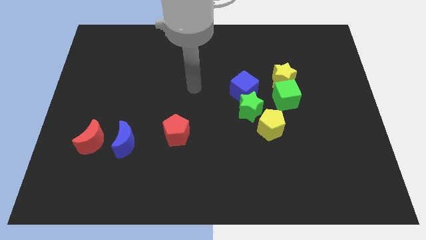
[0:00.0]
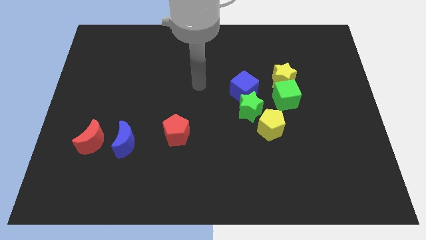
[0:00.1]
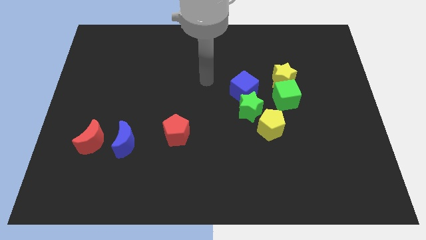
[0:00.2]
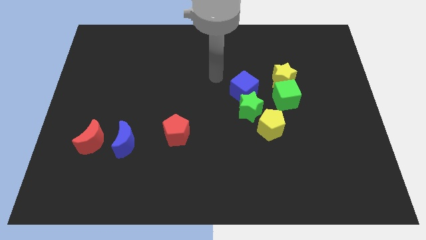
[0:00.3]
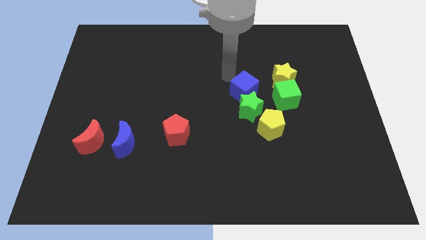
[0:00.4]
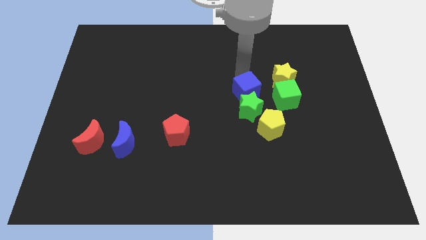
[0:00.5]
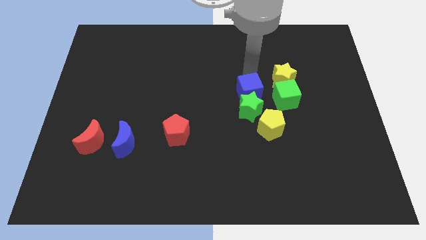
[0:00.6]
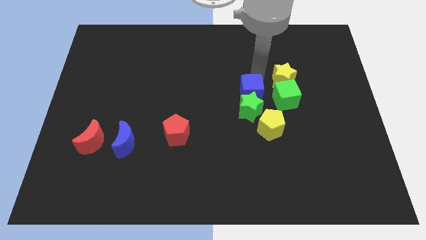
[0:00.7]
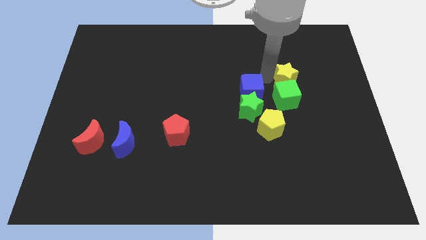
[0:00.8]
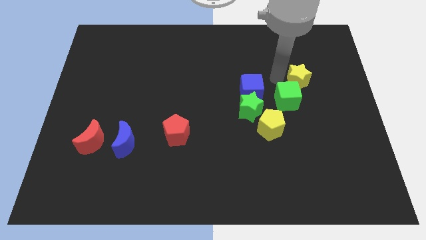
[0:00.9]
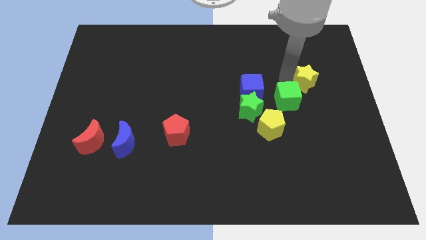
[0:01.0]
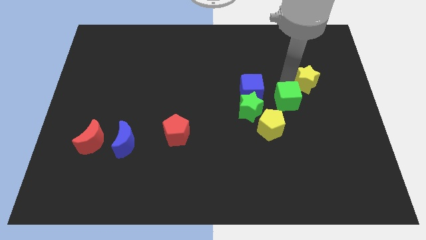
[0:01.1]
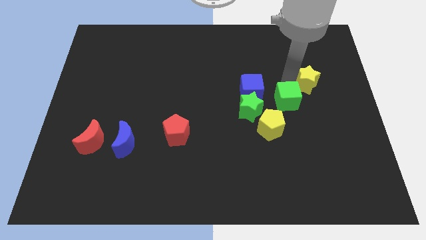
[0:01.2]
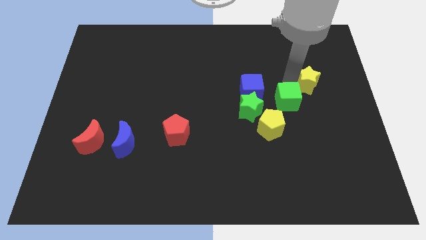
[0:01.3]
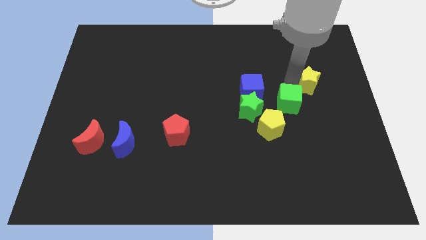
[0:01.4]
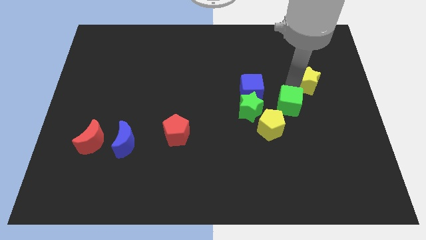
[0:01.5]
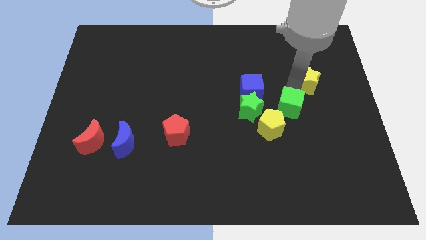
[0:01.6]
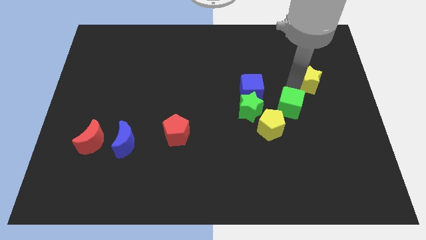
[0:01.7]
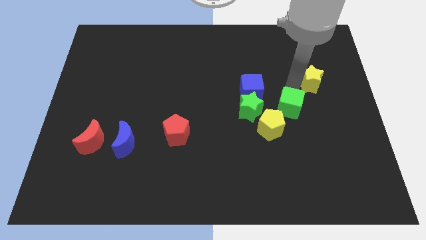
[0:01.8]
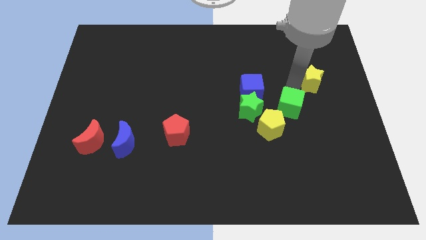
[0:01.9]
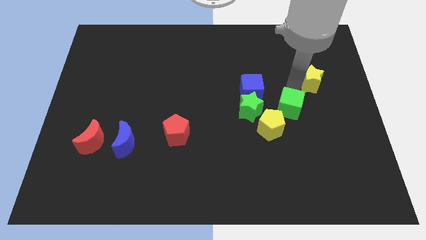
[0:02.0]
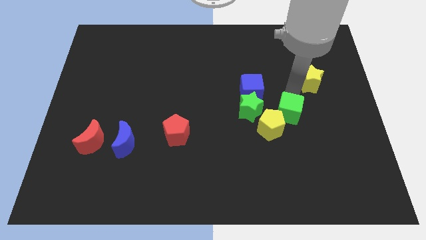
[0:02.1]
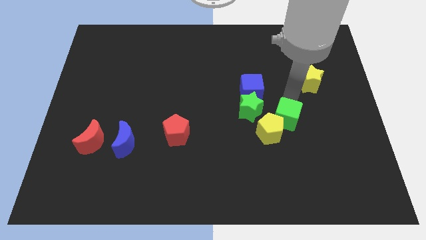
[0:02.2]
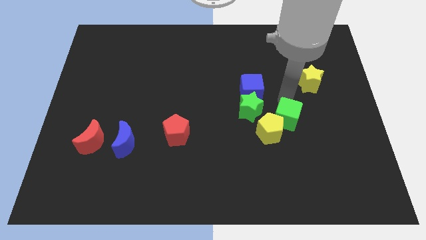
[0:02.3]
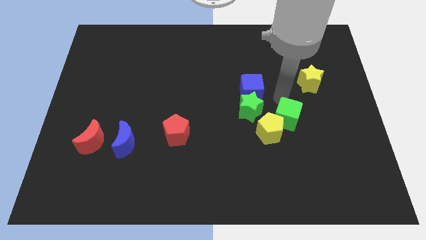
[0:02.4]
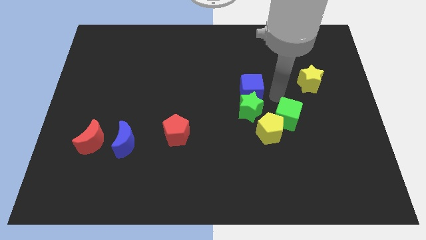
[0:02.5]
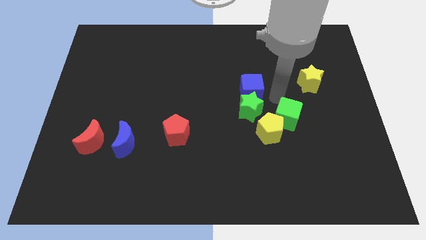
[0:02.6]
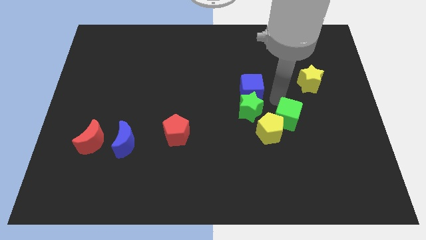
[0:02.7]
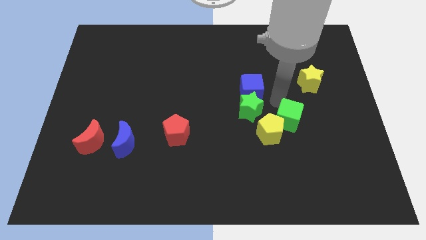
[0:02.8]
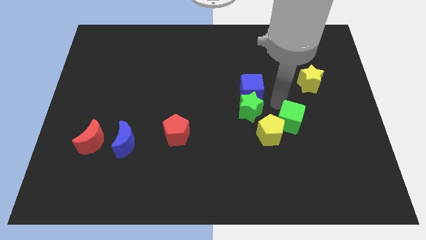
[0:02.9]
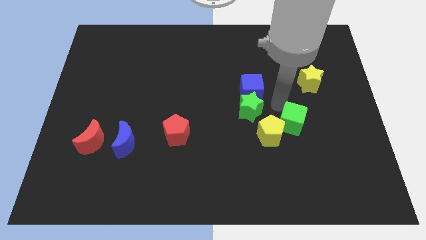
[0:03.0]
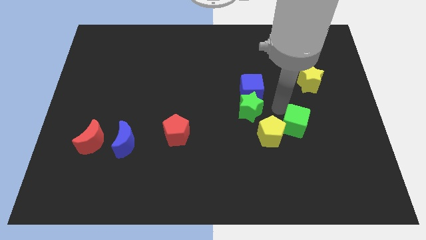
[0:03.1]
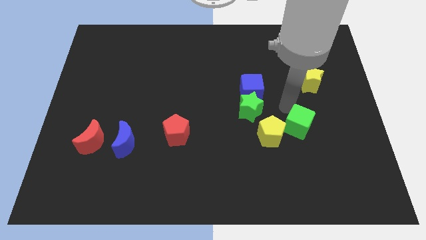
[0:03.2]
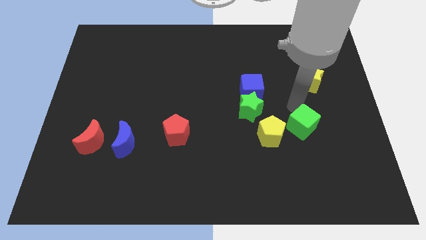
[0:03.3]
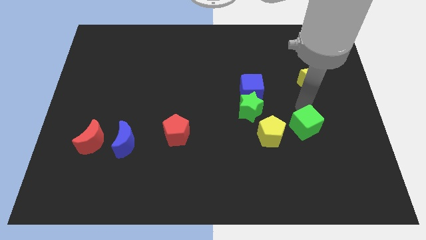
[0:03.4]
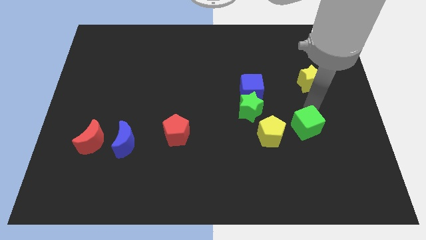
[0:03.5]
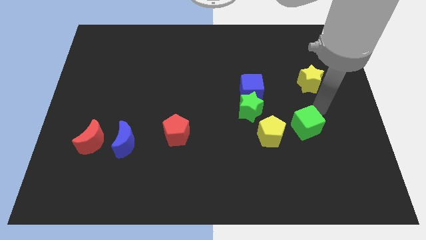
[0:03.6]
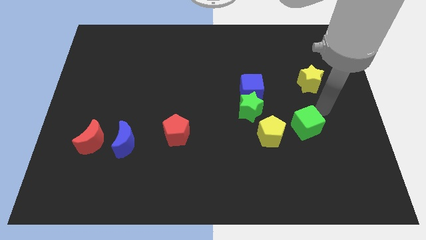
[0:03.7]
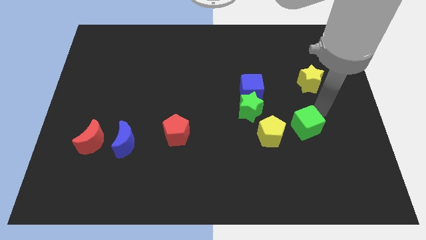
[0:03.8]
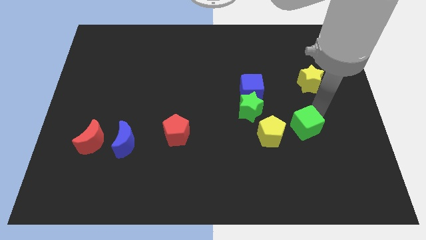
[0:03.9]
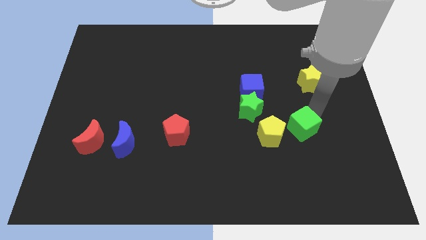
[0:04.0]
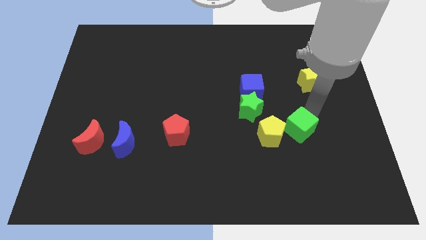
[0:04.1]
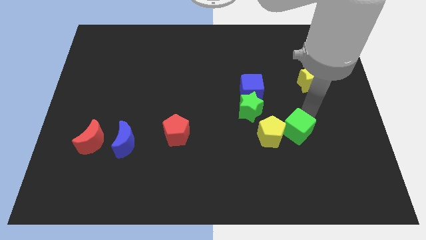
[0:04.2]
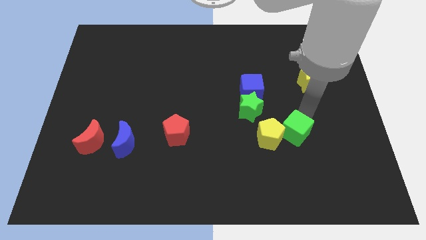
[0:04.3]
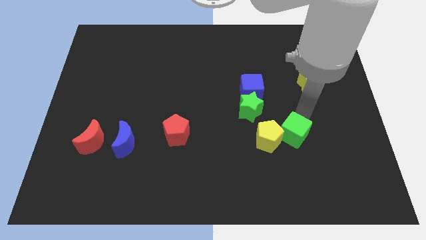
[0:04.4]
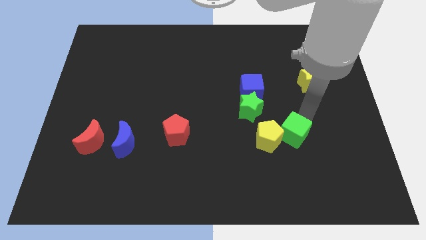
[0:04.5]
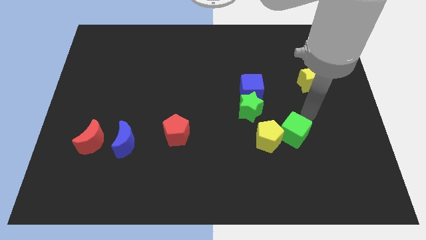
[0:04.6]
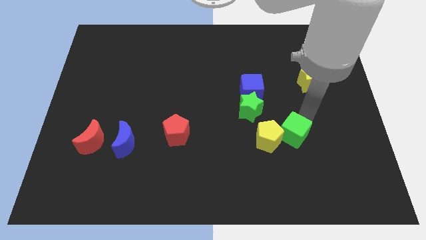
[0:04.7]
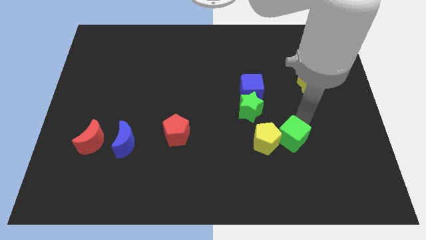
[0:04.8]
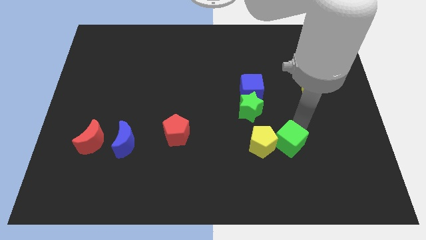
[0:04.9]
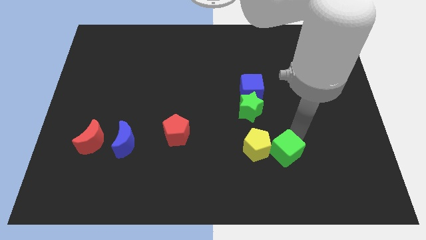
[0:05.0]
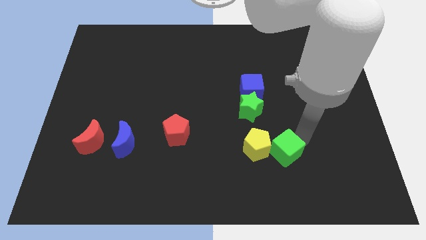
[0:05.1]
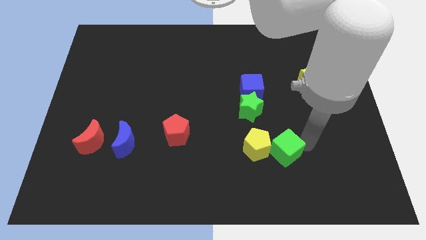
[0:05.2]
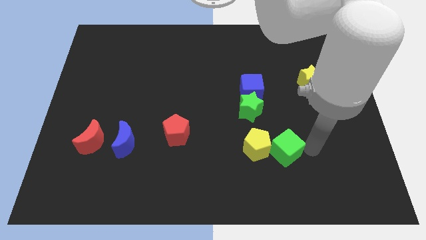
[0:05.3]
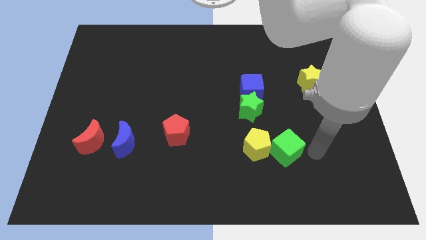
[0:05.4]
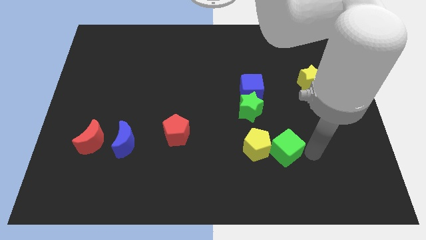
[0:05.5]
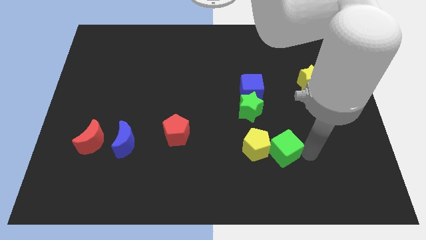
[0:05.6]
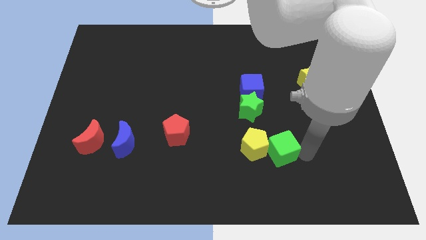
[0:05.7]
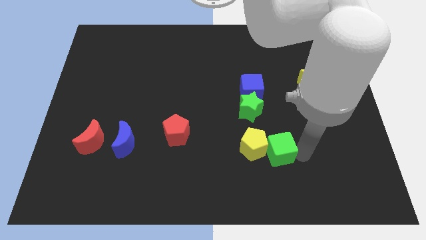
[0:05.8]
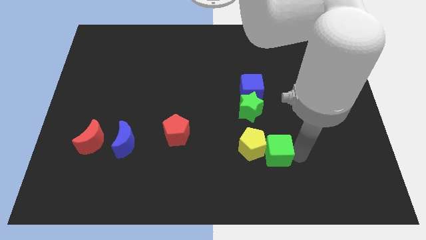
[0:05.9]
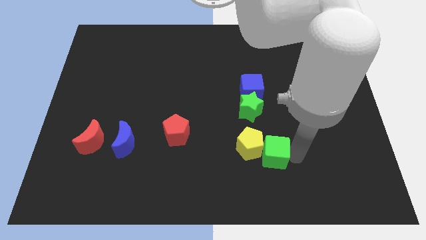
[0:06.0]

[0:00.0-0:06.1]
slide the green cube to the bottom of the green star

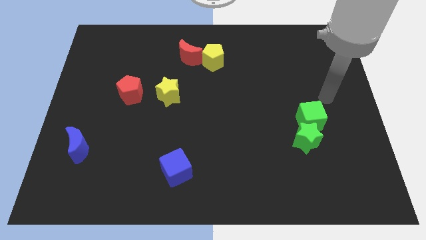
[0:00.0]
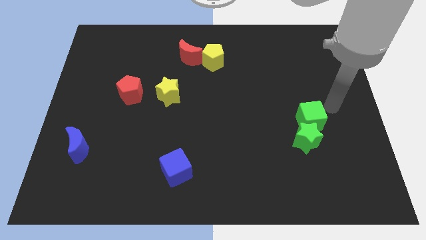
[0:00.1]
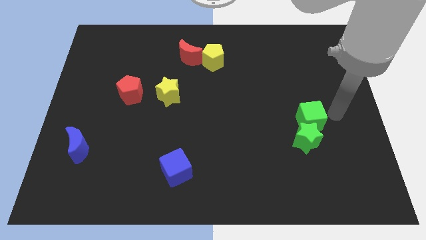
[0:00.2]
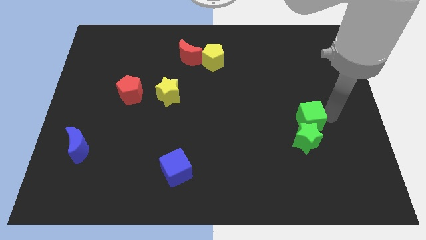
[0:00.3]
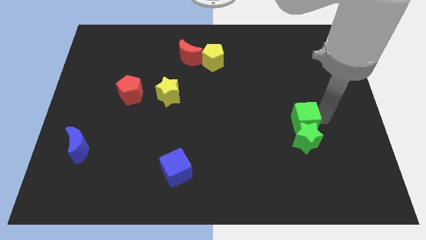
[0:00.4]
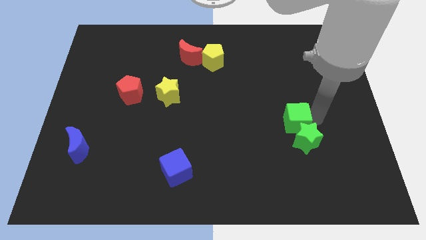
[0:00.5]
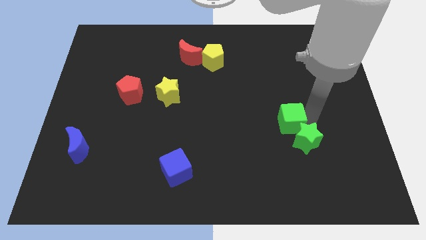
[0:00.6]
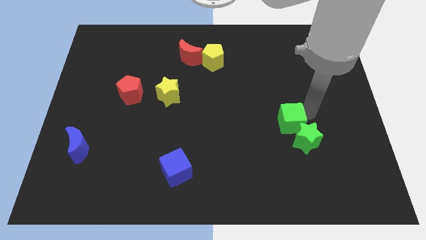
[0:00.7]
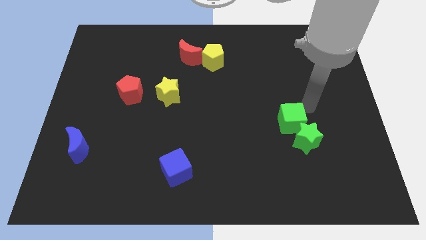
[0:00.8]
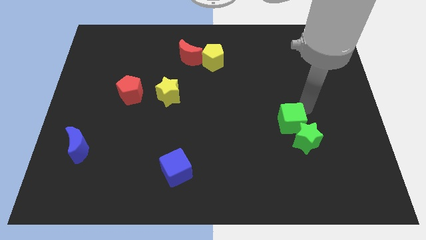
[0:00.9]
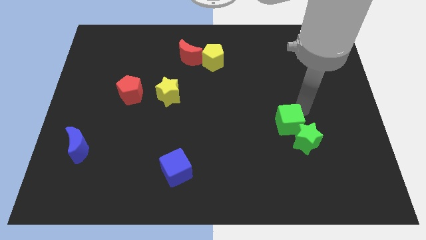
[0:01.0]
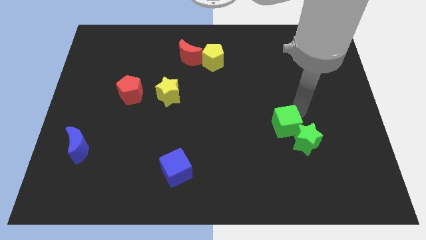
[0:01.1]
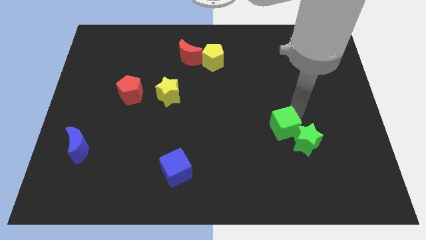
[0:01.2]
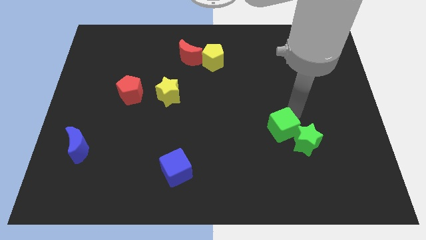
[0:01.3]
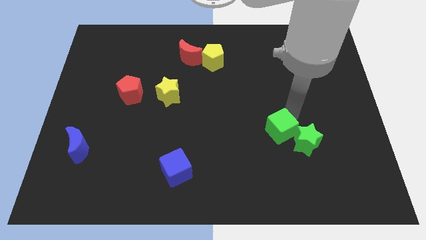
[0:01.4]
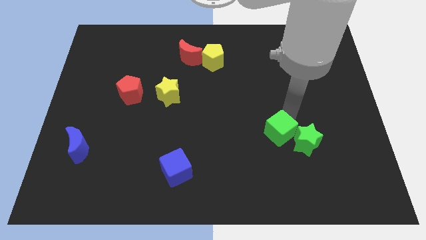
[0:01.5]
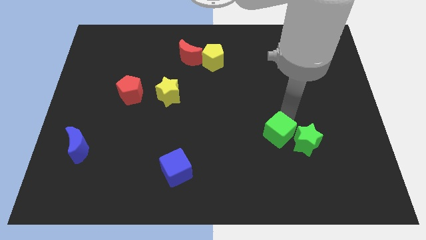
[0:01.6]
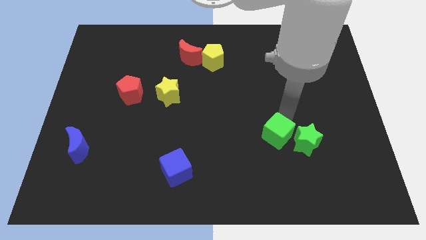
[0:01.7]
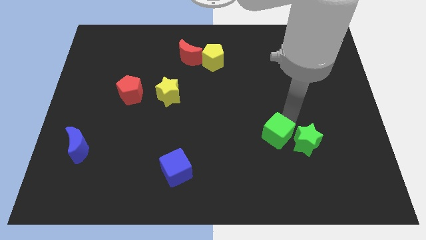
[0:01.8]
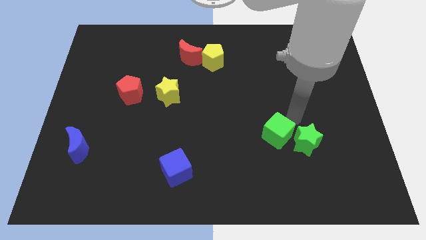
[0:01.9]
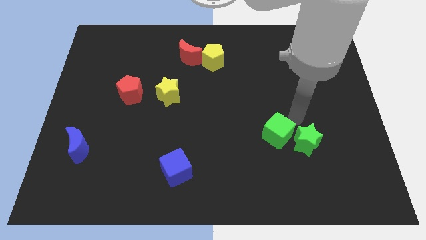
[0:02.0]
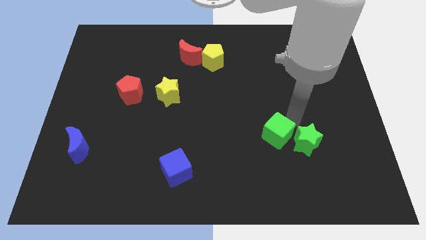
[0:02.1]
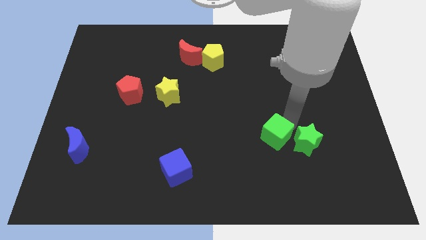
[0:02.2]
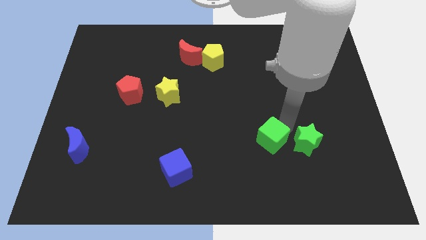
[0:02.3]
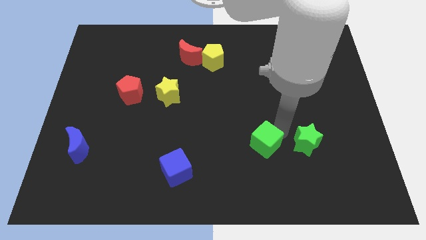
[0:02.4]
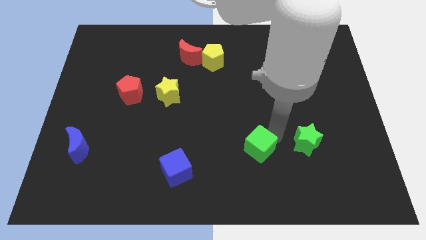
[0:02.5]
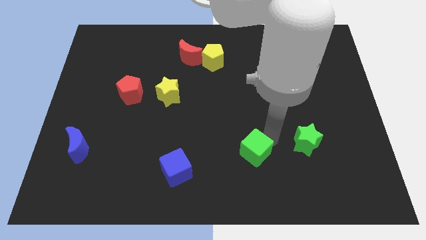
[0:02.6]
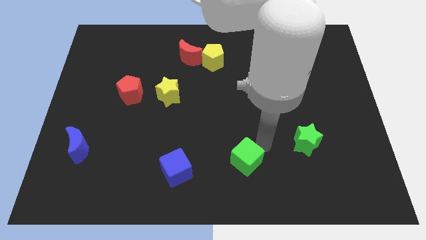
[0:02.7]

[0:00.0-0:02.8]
put the green cube right of the blue cube
